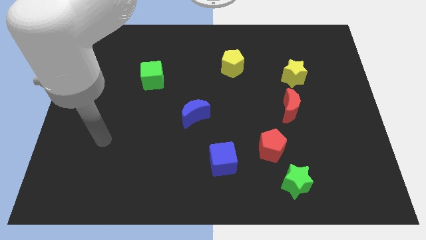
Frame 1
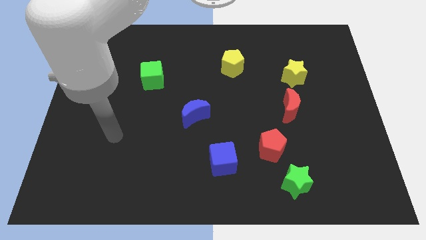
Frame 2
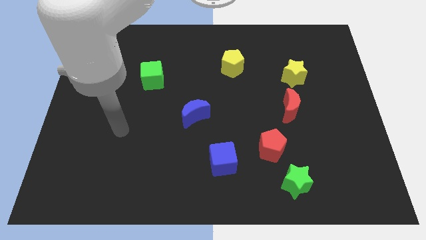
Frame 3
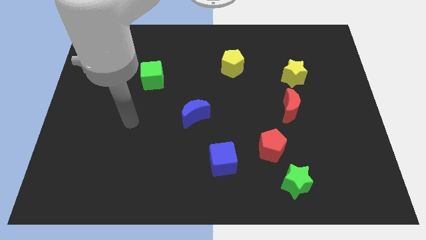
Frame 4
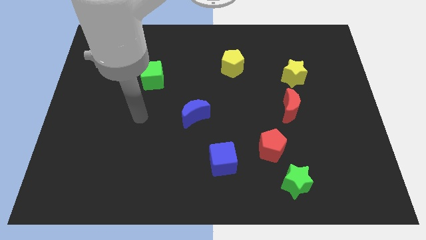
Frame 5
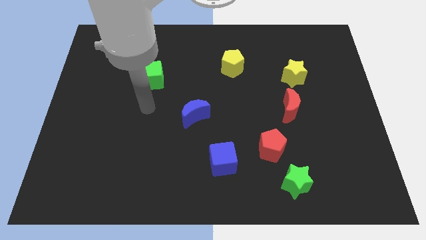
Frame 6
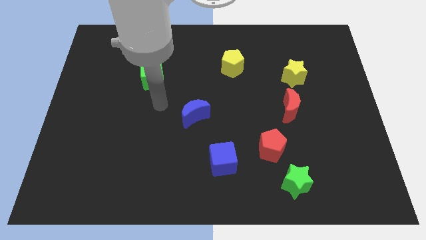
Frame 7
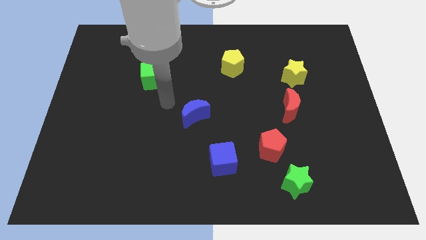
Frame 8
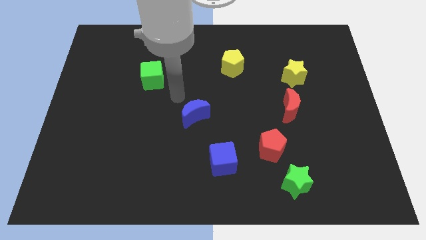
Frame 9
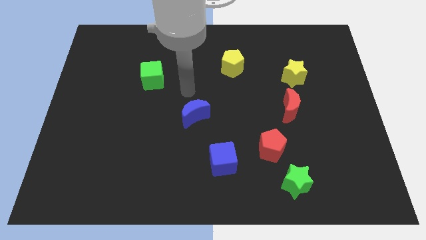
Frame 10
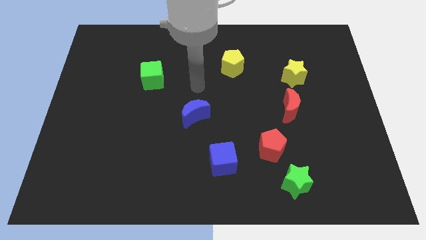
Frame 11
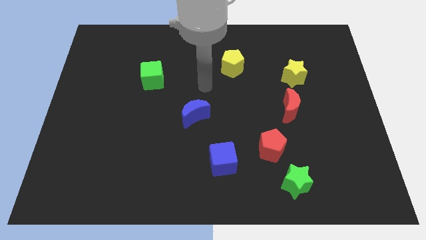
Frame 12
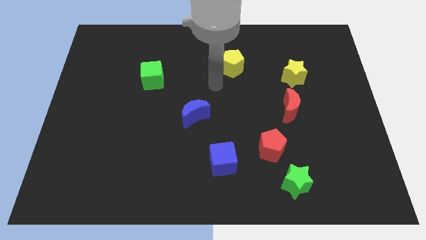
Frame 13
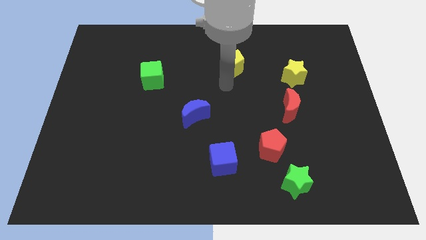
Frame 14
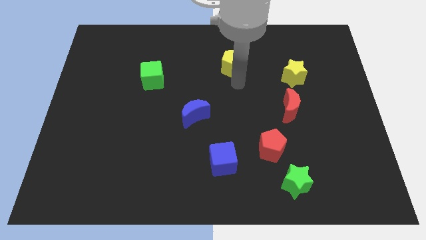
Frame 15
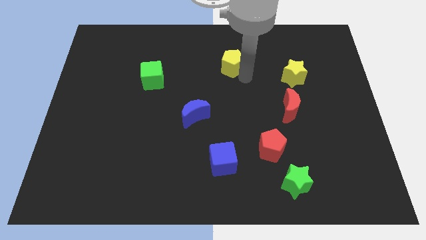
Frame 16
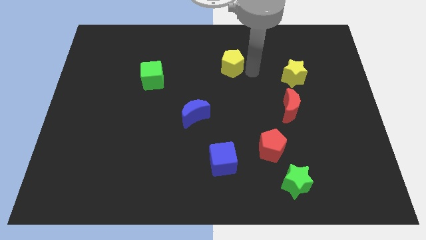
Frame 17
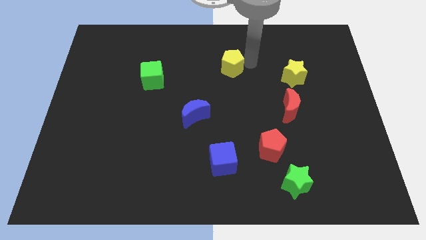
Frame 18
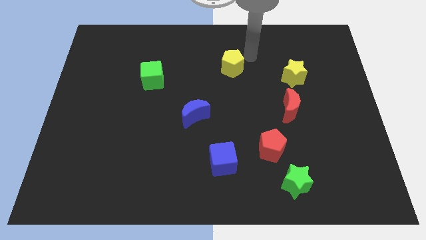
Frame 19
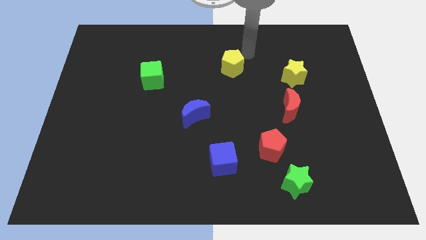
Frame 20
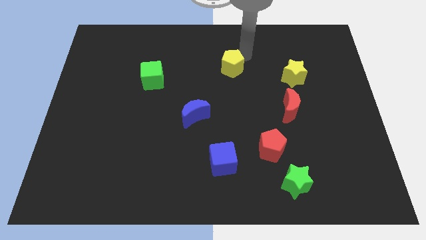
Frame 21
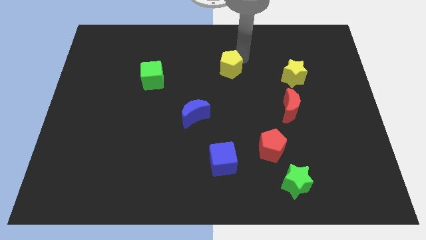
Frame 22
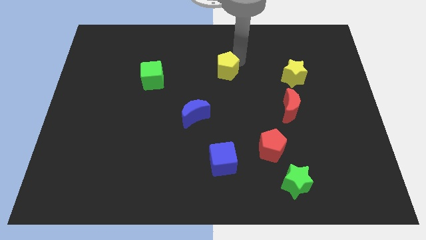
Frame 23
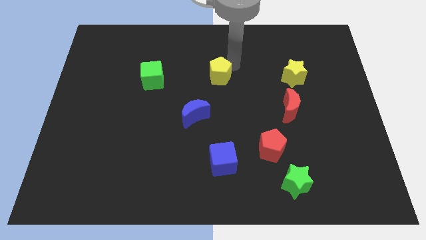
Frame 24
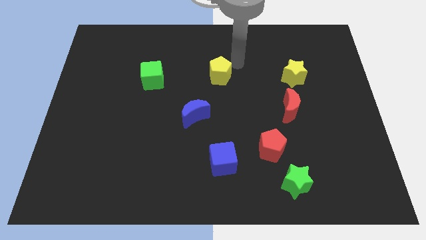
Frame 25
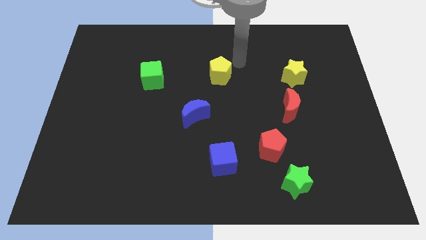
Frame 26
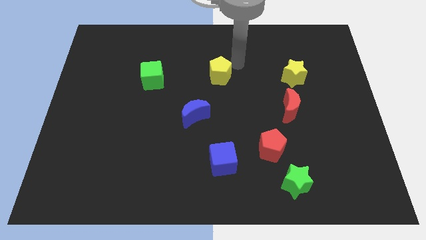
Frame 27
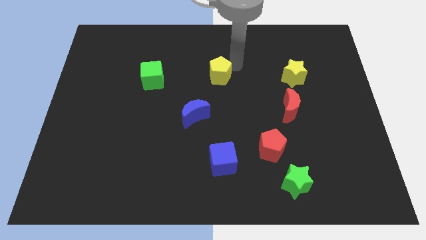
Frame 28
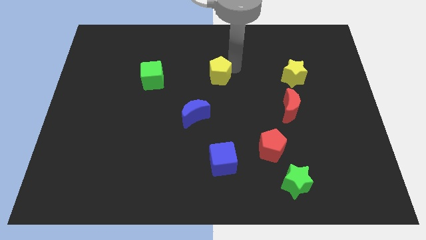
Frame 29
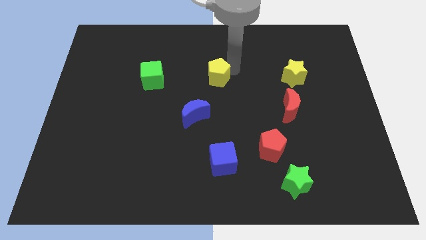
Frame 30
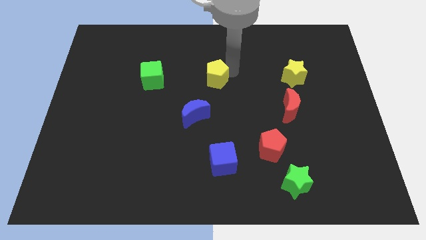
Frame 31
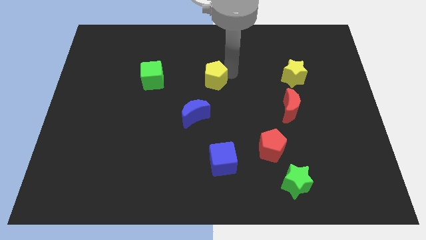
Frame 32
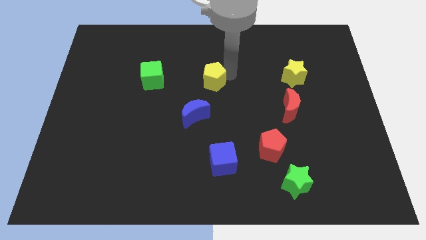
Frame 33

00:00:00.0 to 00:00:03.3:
slightly move the yellow pentagon down and then left

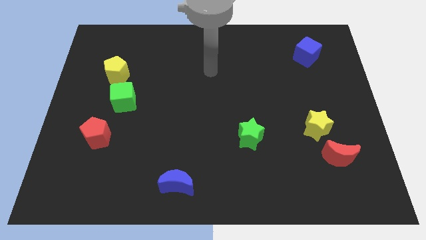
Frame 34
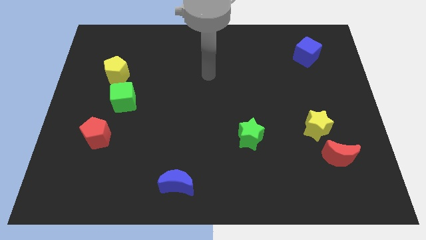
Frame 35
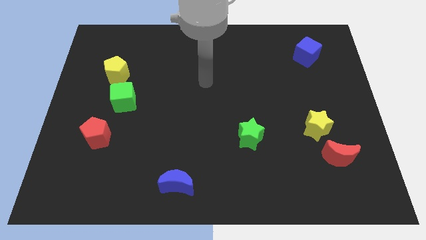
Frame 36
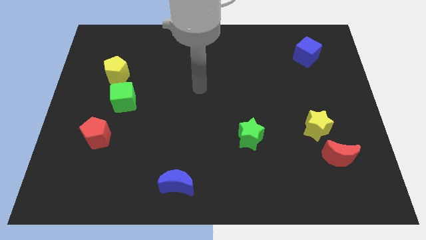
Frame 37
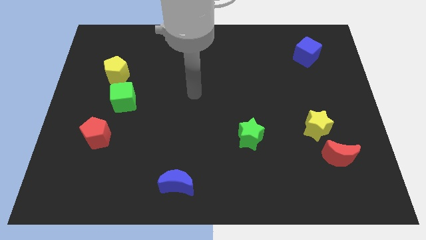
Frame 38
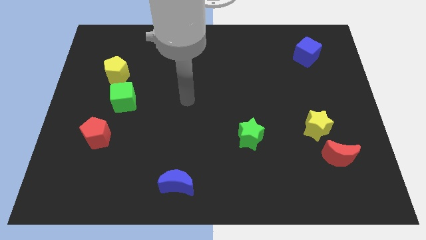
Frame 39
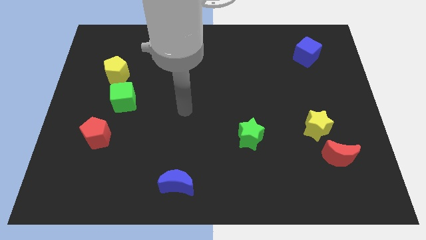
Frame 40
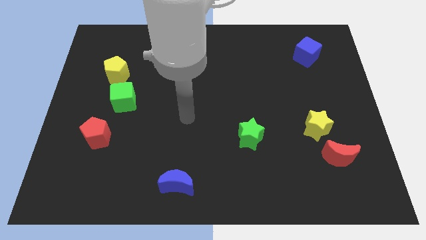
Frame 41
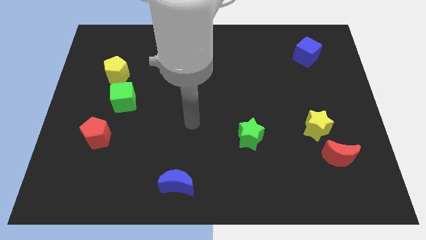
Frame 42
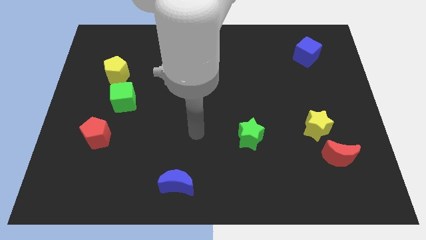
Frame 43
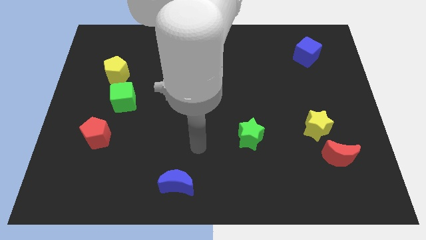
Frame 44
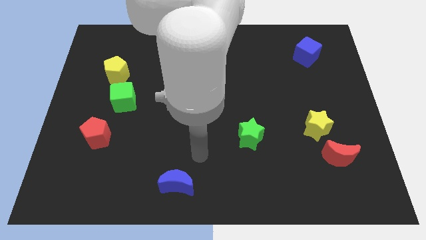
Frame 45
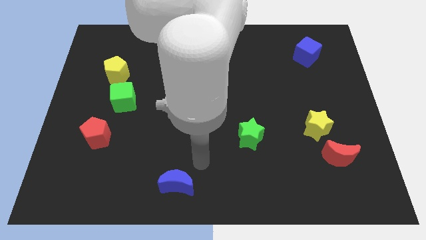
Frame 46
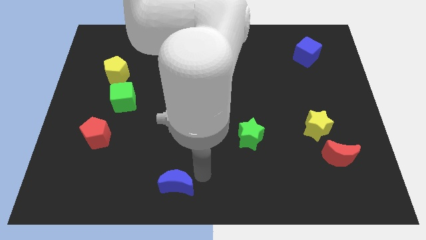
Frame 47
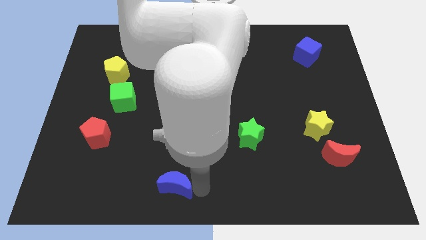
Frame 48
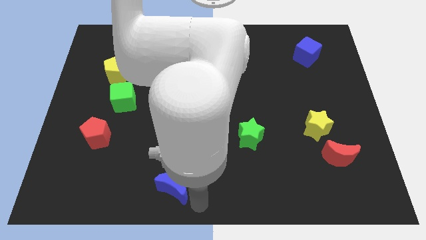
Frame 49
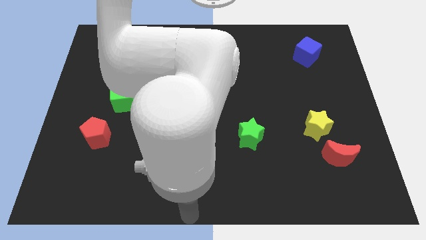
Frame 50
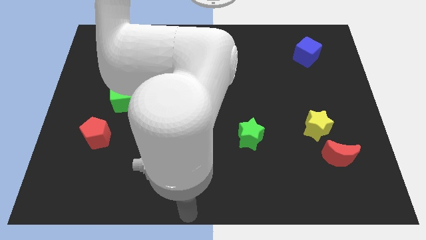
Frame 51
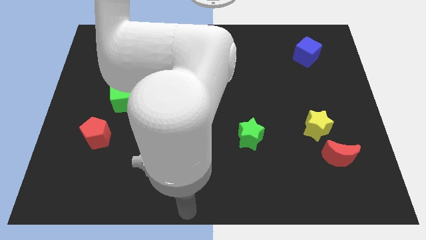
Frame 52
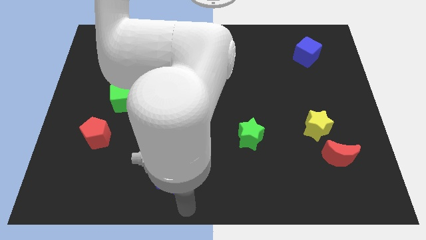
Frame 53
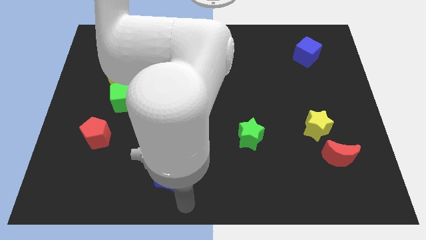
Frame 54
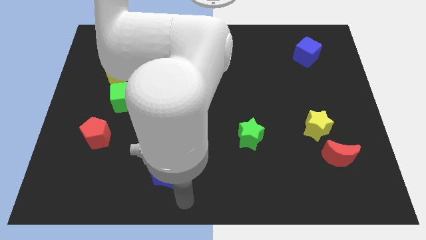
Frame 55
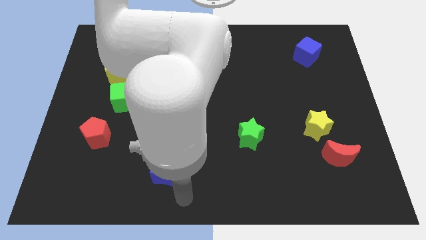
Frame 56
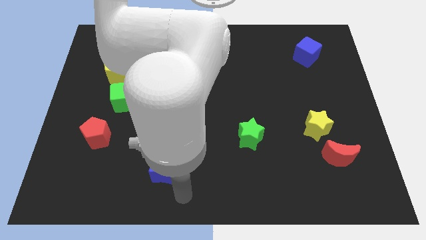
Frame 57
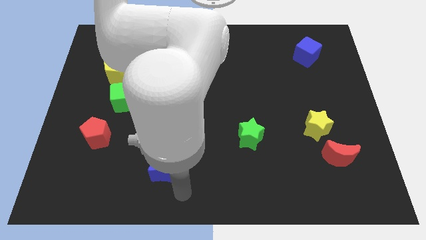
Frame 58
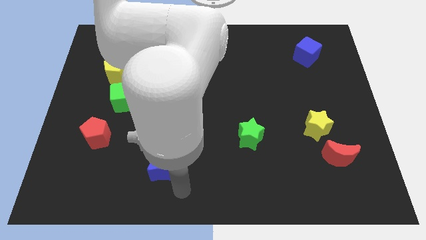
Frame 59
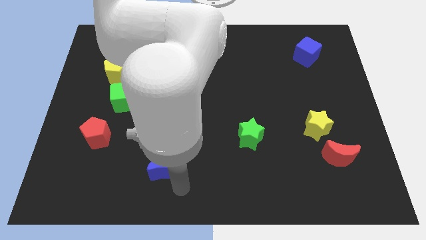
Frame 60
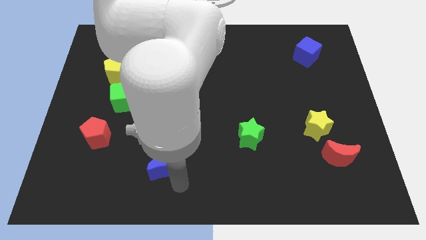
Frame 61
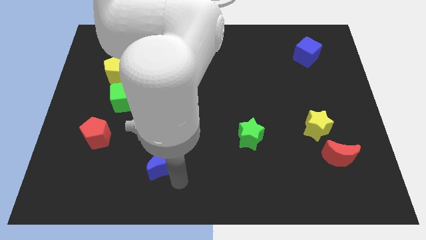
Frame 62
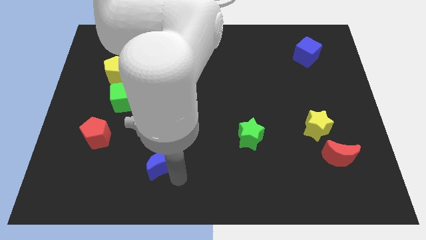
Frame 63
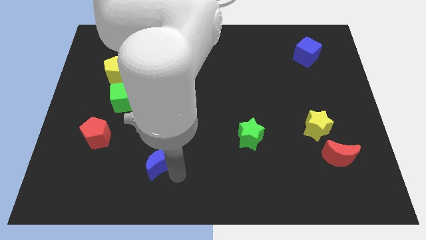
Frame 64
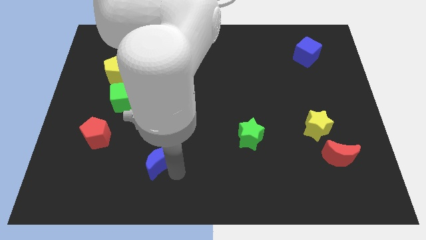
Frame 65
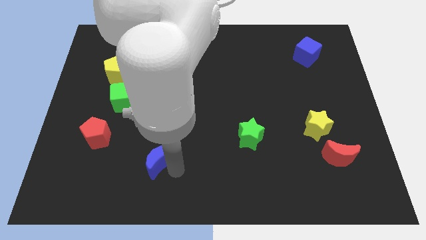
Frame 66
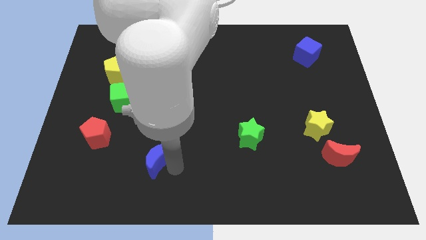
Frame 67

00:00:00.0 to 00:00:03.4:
slightly move the blue moon diagonally up and to the left

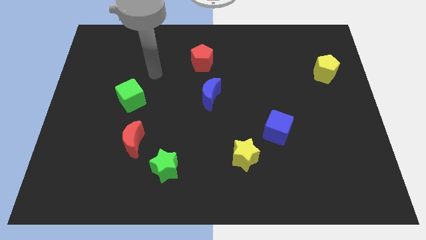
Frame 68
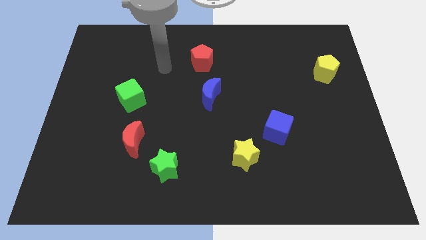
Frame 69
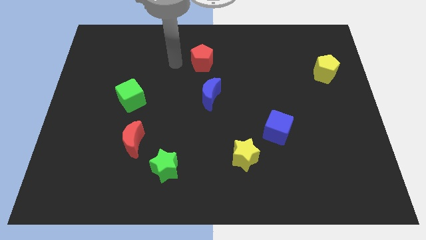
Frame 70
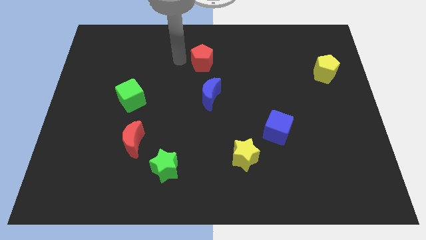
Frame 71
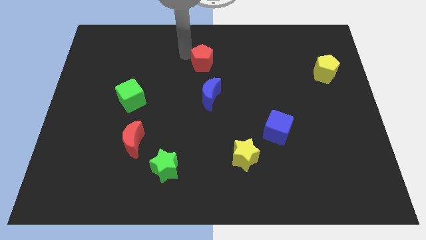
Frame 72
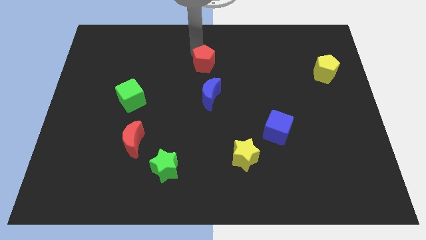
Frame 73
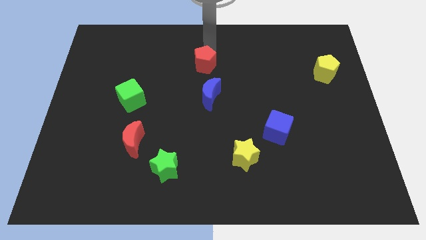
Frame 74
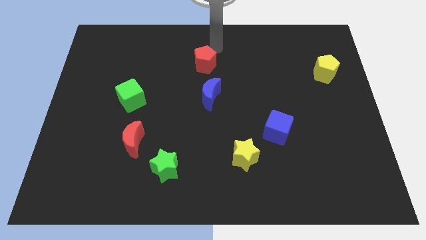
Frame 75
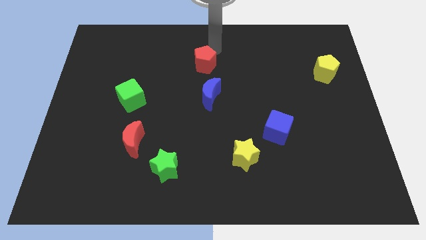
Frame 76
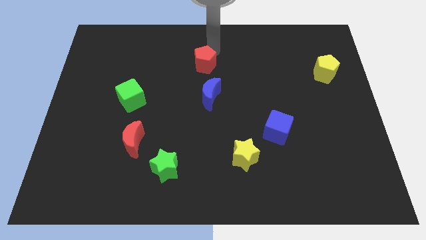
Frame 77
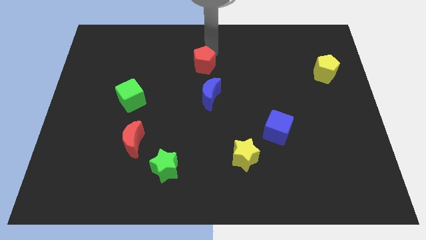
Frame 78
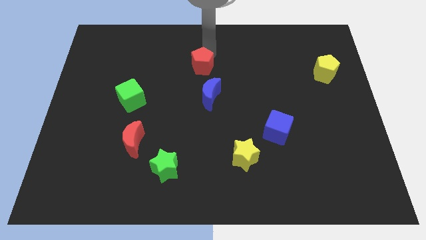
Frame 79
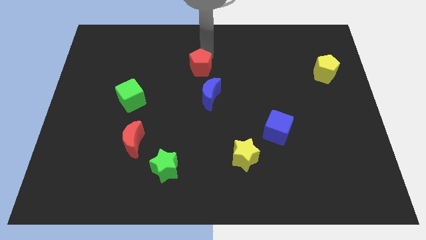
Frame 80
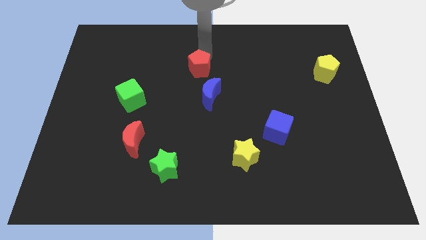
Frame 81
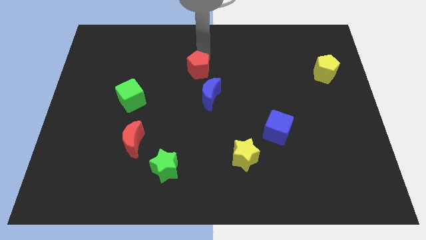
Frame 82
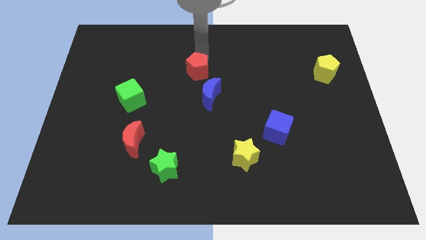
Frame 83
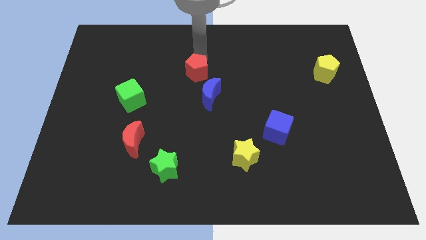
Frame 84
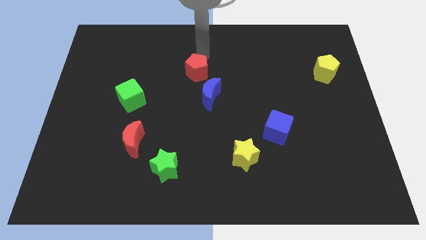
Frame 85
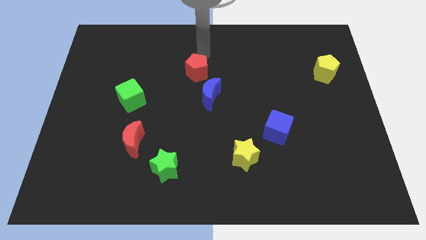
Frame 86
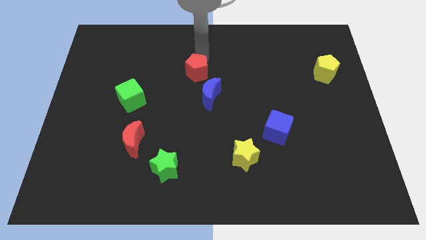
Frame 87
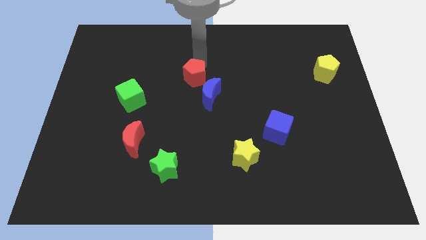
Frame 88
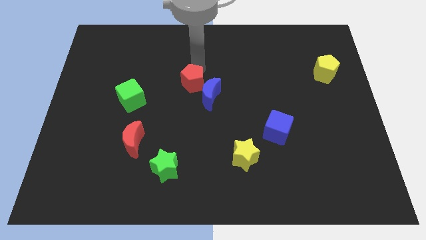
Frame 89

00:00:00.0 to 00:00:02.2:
move the red pentagon down slightly
